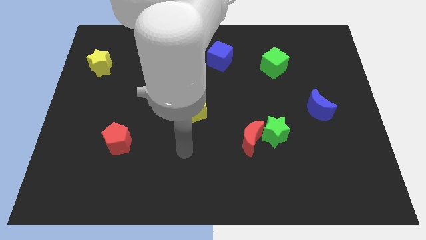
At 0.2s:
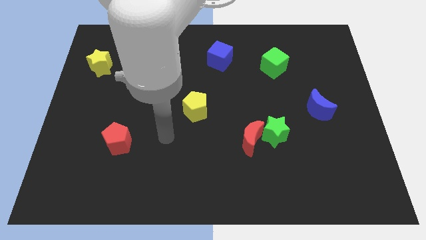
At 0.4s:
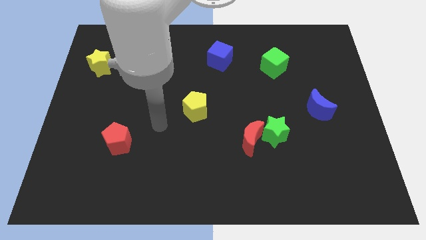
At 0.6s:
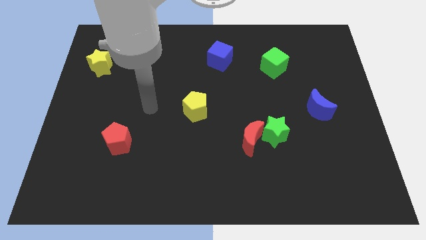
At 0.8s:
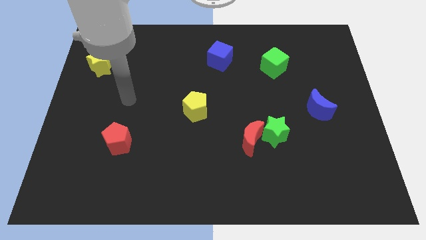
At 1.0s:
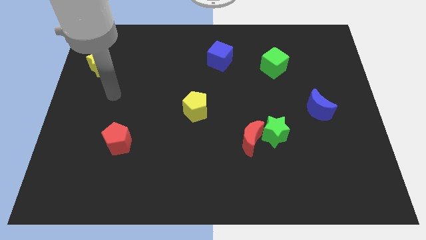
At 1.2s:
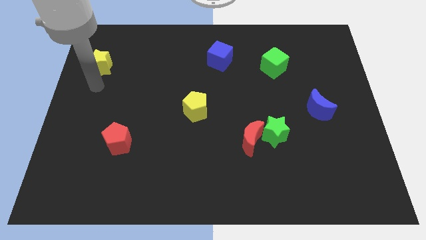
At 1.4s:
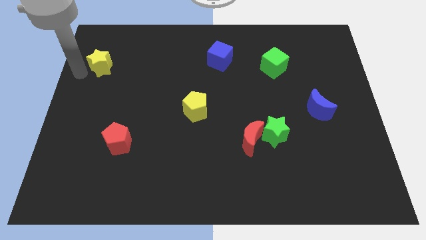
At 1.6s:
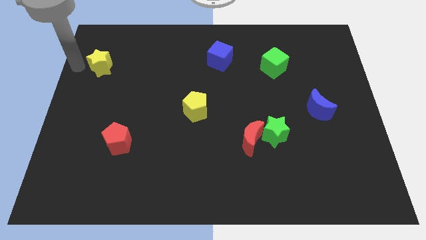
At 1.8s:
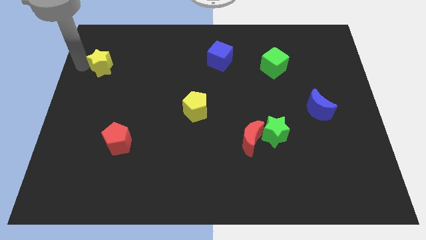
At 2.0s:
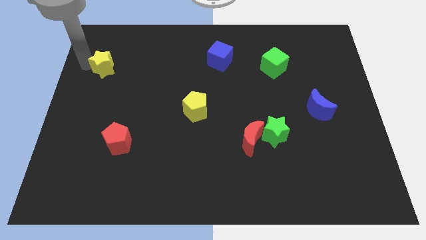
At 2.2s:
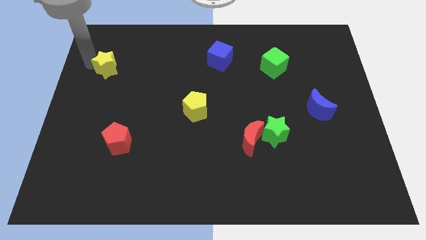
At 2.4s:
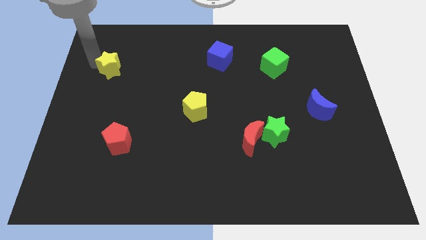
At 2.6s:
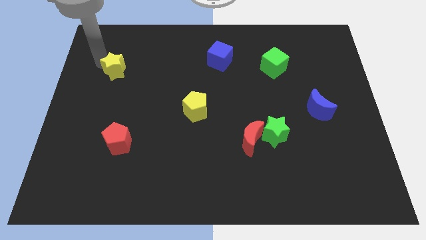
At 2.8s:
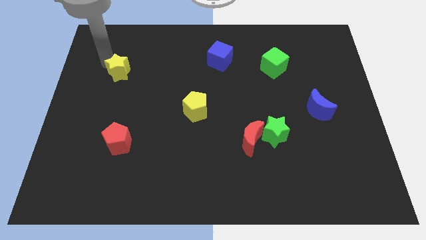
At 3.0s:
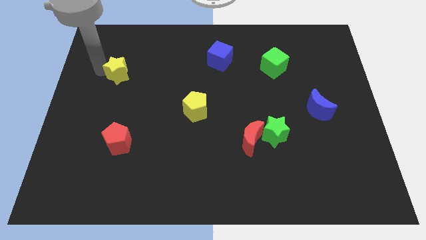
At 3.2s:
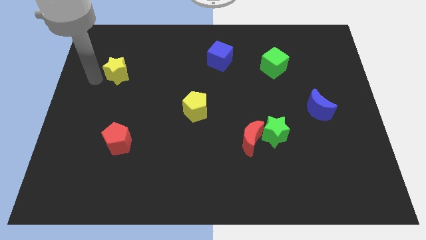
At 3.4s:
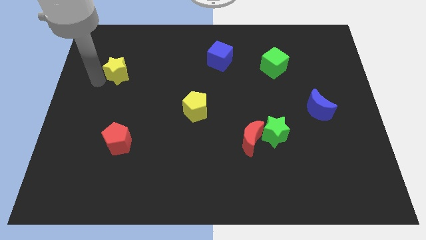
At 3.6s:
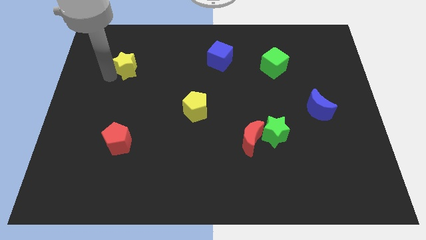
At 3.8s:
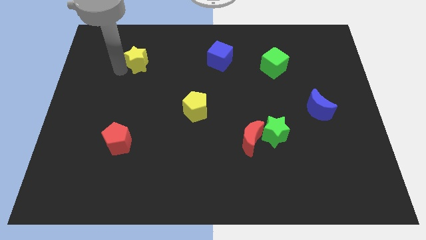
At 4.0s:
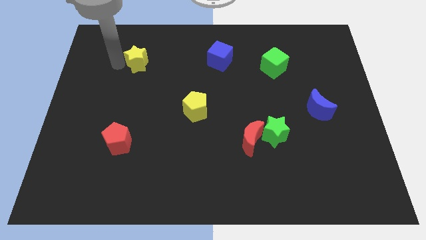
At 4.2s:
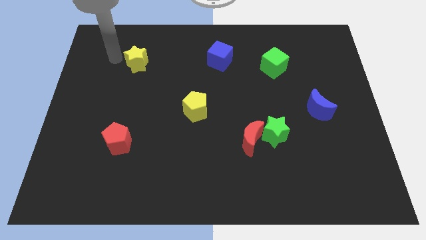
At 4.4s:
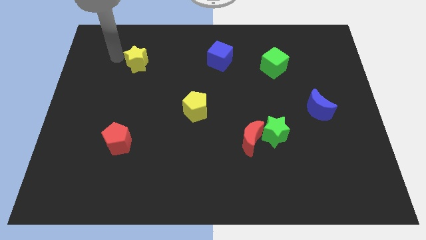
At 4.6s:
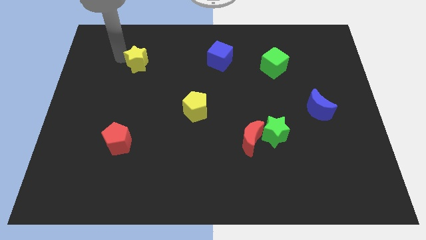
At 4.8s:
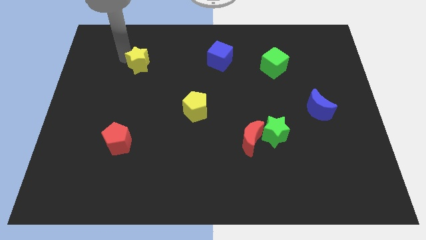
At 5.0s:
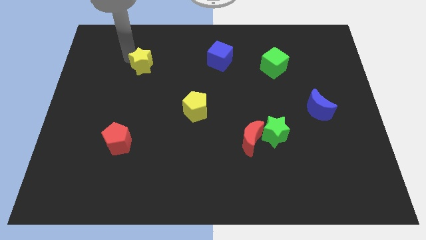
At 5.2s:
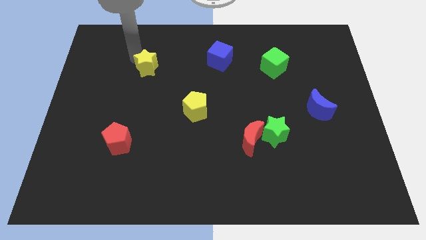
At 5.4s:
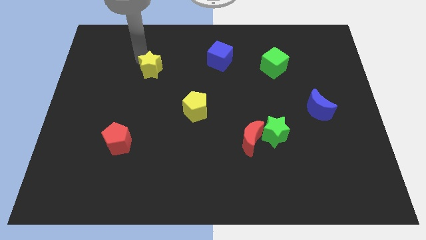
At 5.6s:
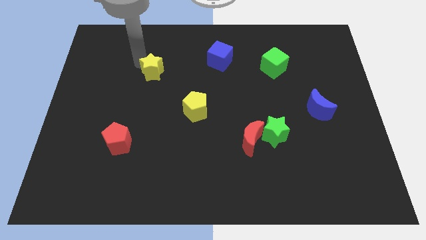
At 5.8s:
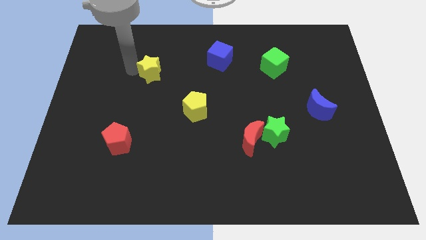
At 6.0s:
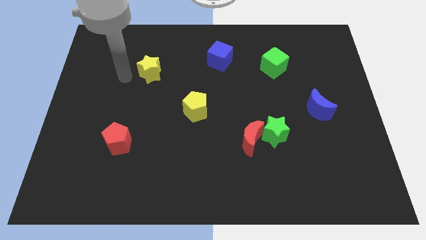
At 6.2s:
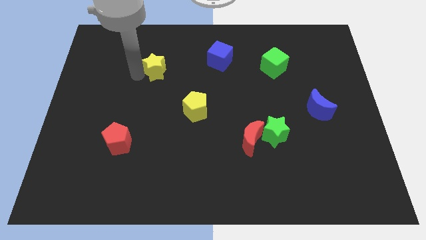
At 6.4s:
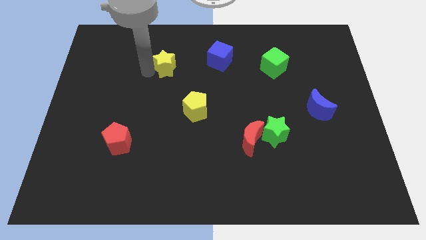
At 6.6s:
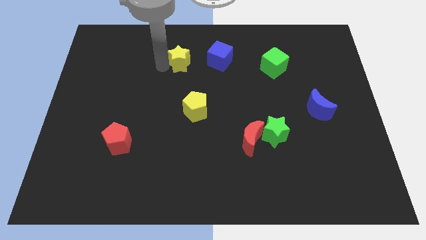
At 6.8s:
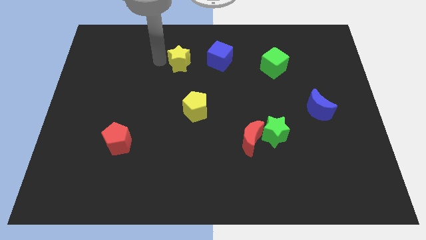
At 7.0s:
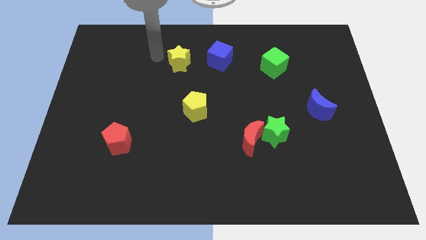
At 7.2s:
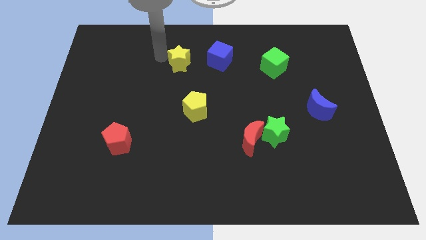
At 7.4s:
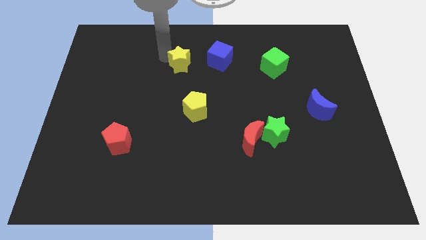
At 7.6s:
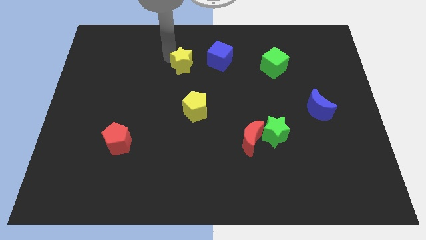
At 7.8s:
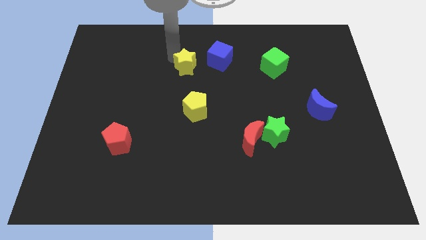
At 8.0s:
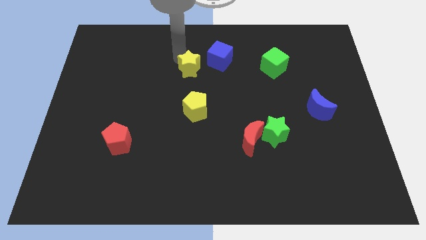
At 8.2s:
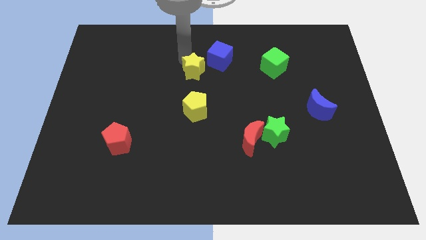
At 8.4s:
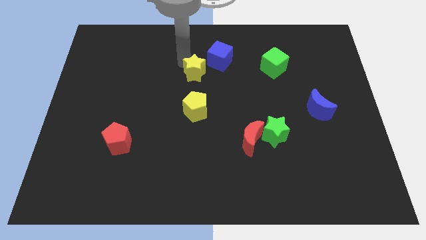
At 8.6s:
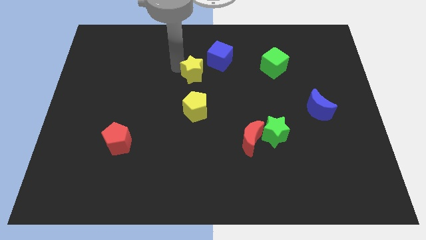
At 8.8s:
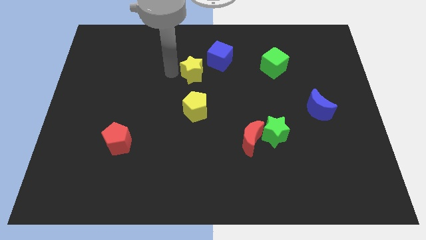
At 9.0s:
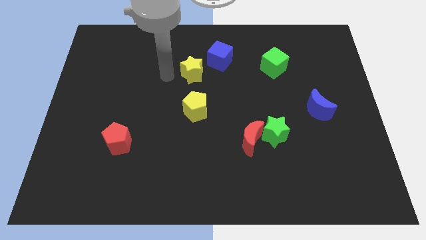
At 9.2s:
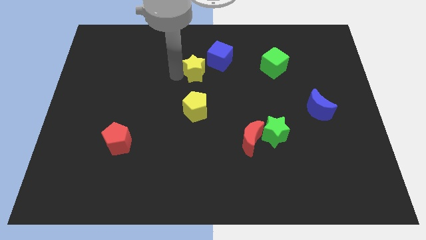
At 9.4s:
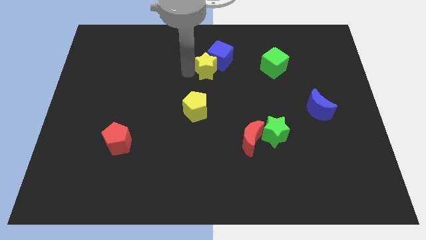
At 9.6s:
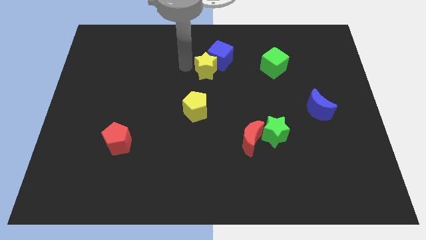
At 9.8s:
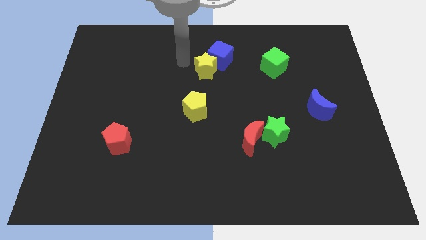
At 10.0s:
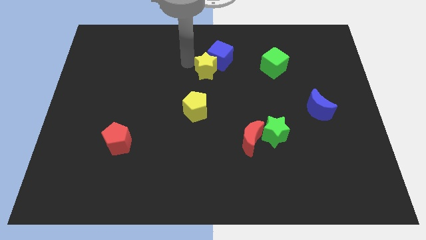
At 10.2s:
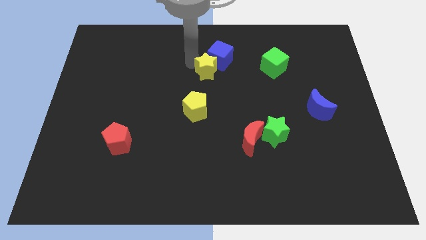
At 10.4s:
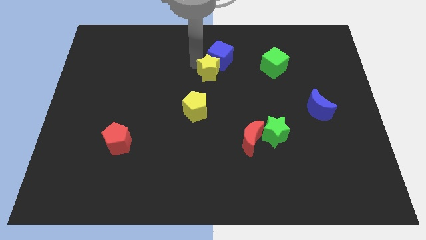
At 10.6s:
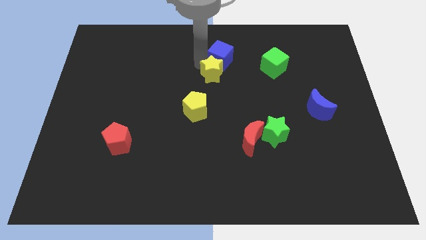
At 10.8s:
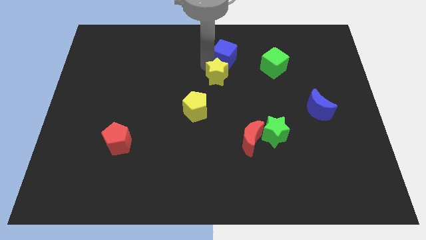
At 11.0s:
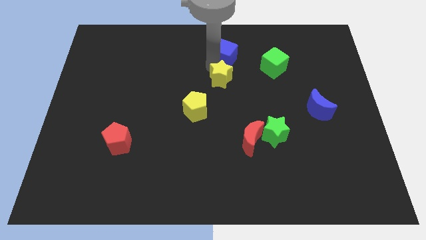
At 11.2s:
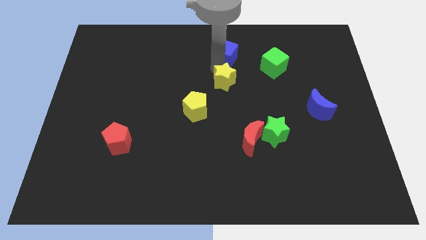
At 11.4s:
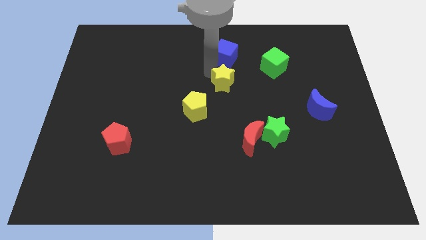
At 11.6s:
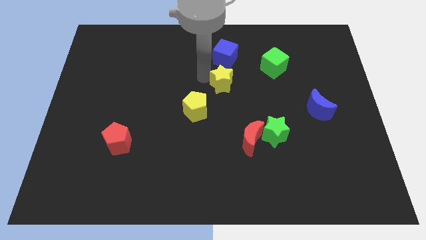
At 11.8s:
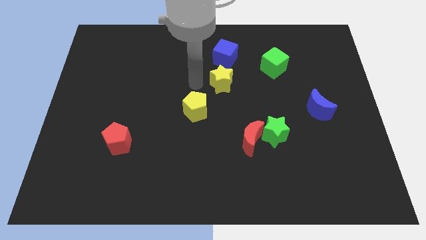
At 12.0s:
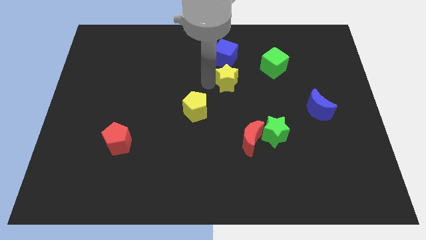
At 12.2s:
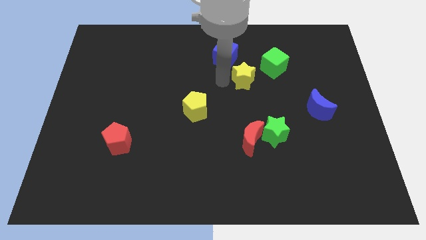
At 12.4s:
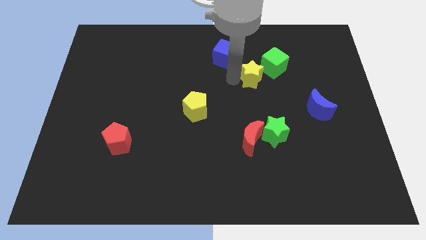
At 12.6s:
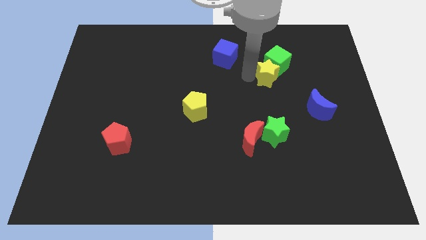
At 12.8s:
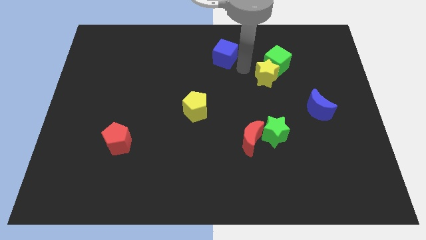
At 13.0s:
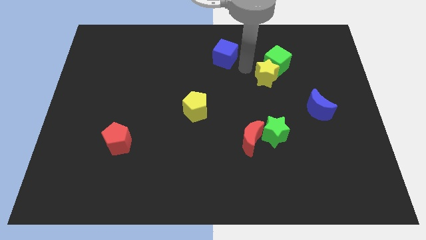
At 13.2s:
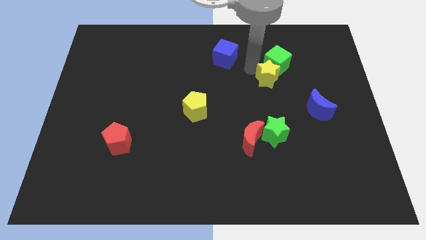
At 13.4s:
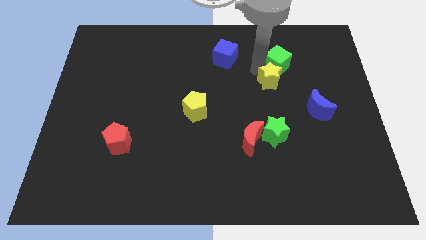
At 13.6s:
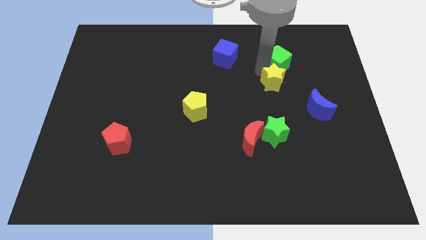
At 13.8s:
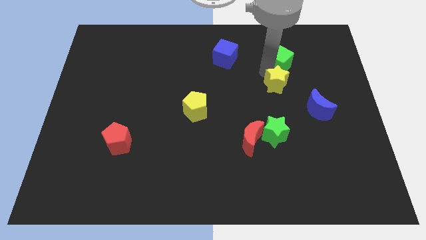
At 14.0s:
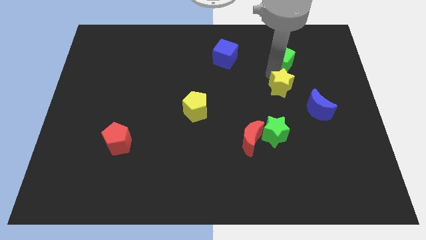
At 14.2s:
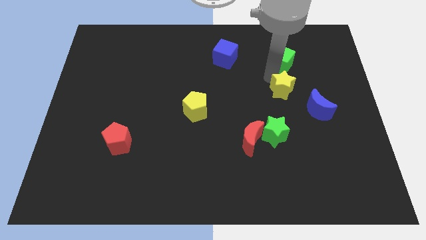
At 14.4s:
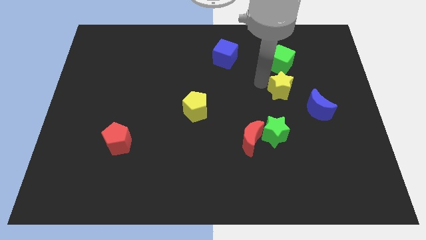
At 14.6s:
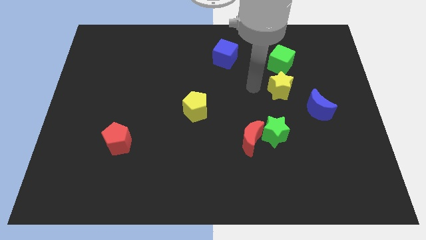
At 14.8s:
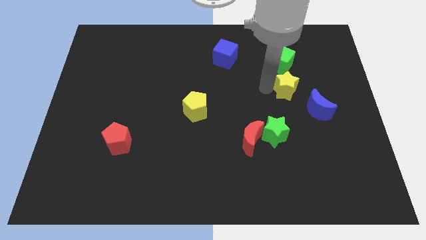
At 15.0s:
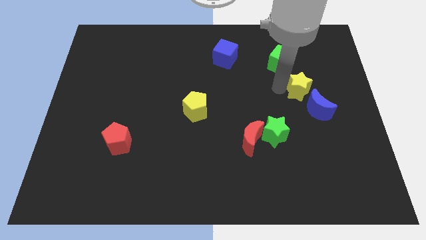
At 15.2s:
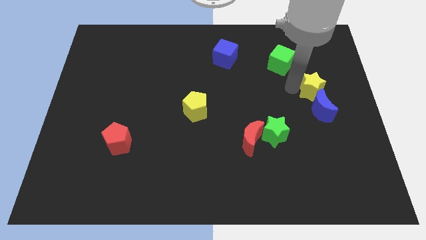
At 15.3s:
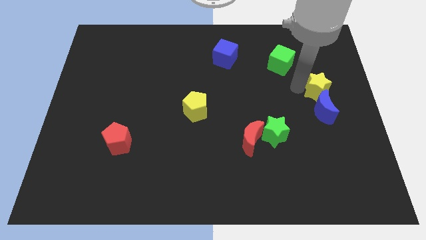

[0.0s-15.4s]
push the yellow star to the right side of the board
